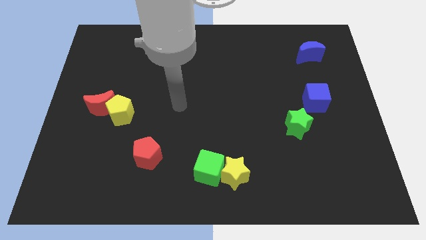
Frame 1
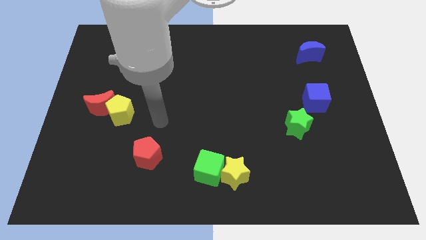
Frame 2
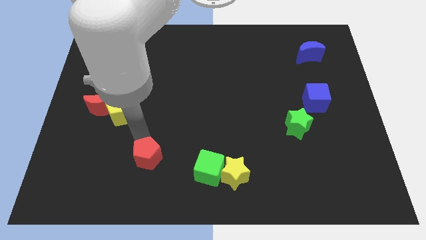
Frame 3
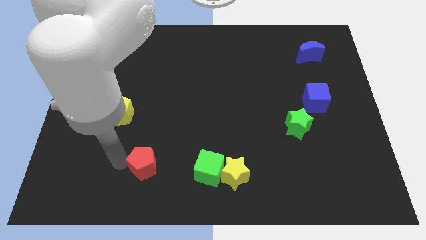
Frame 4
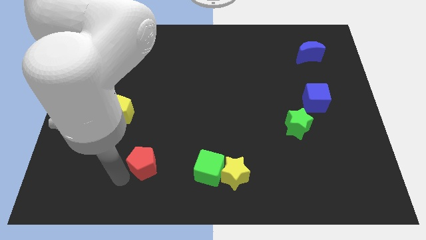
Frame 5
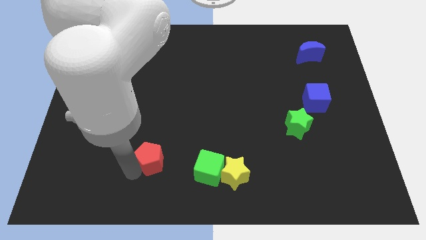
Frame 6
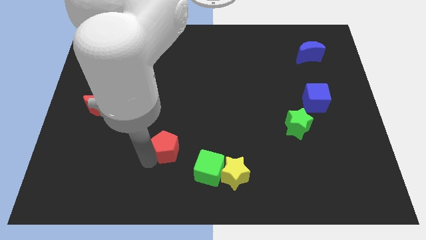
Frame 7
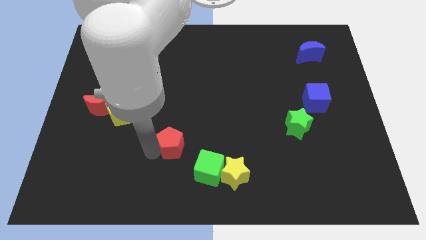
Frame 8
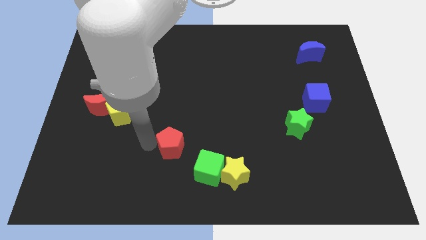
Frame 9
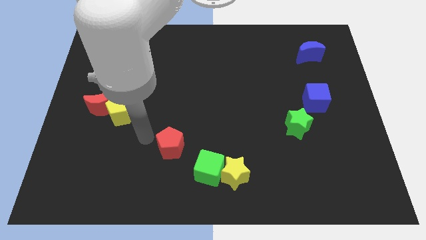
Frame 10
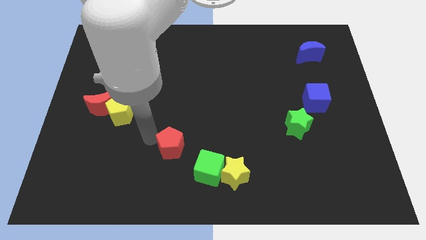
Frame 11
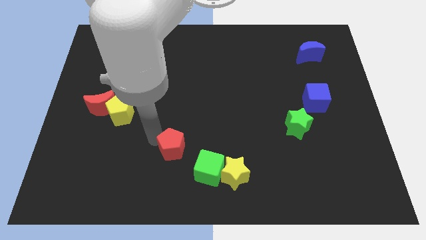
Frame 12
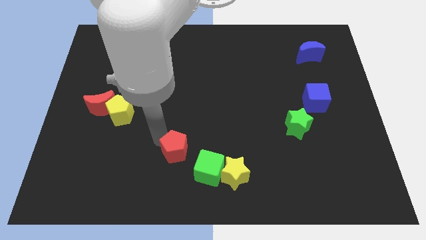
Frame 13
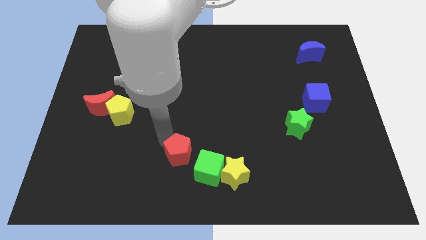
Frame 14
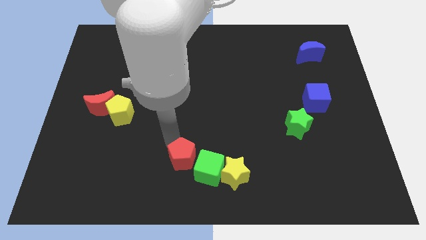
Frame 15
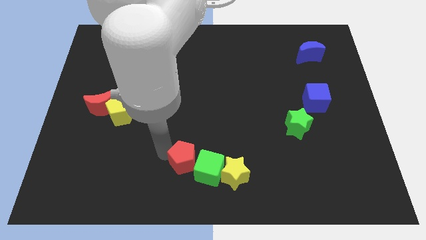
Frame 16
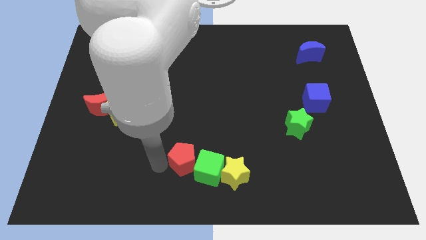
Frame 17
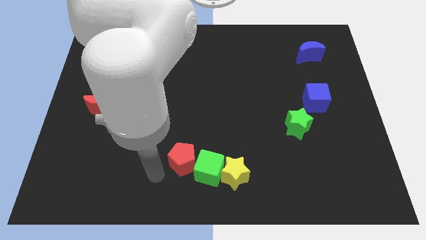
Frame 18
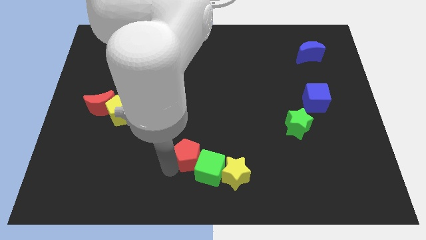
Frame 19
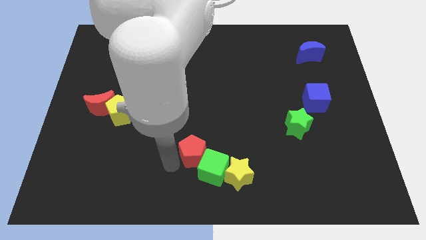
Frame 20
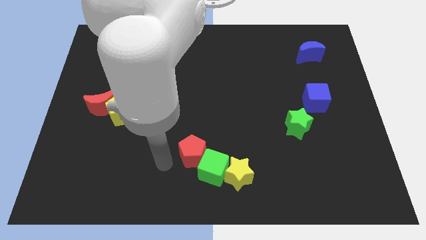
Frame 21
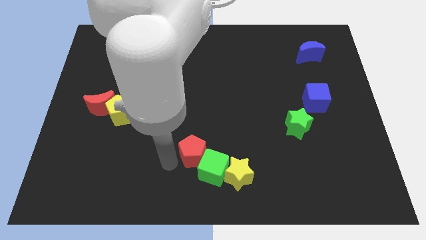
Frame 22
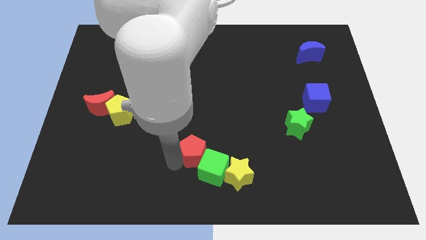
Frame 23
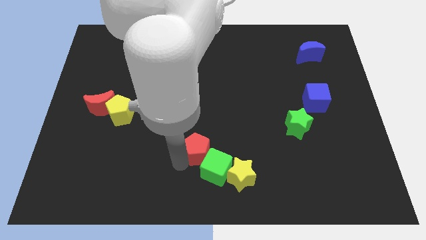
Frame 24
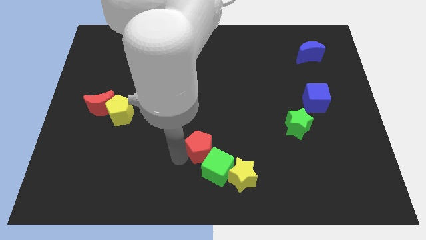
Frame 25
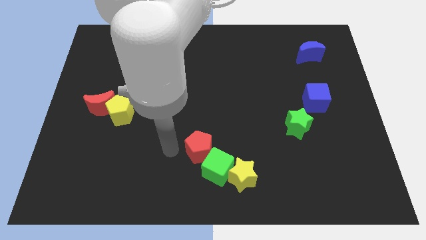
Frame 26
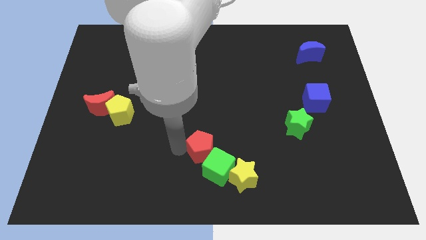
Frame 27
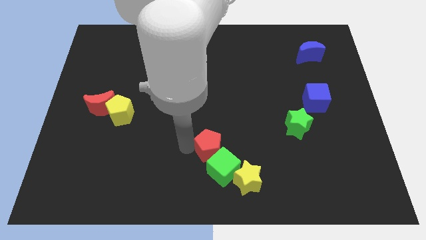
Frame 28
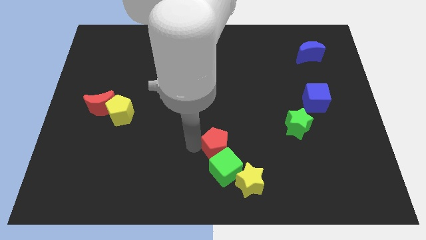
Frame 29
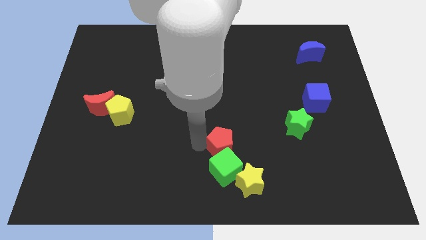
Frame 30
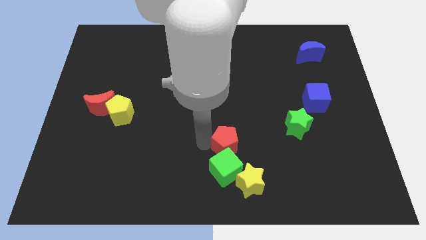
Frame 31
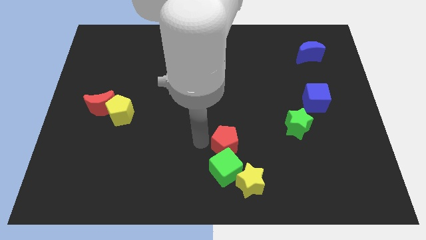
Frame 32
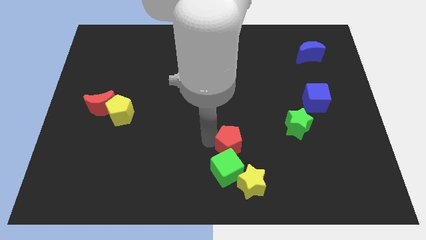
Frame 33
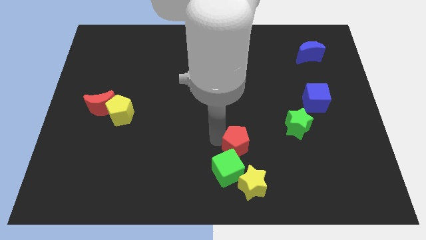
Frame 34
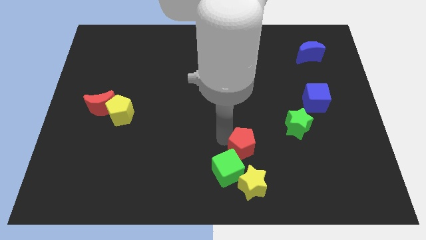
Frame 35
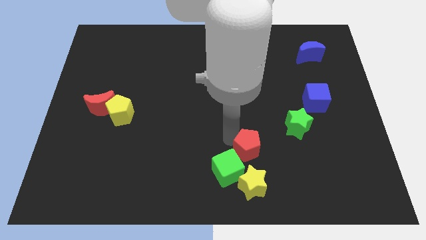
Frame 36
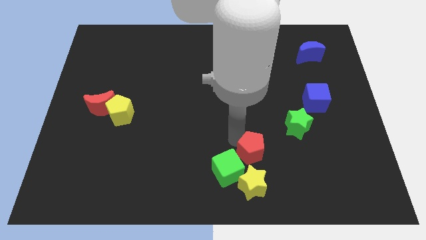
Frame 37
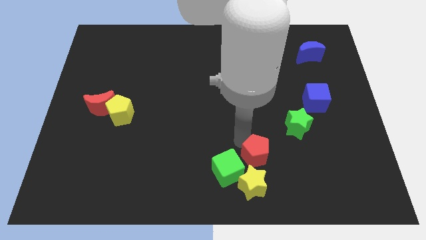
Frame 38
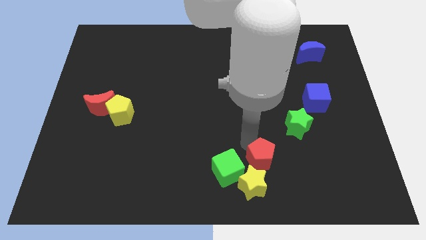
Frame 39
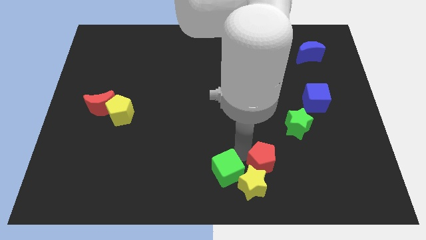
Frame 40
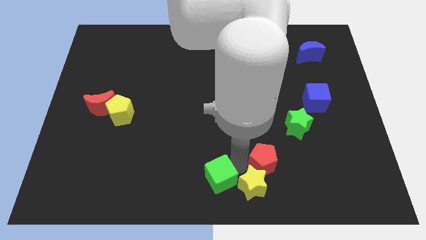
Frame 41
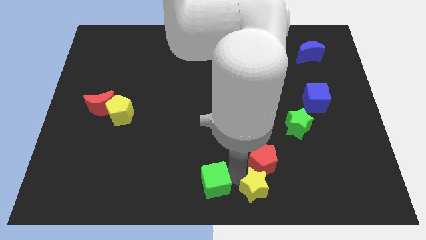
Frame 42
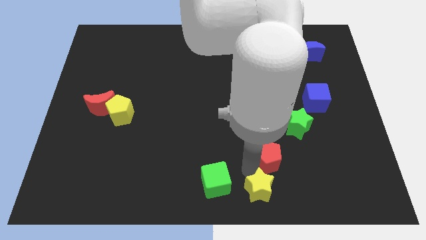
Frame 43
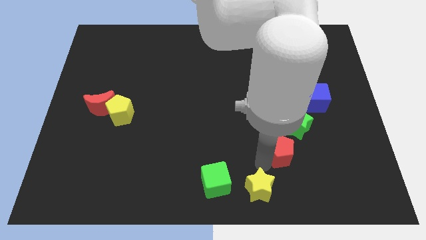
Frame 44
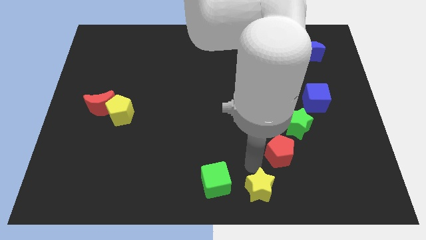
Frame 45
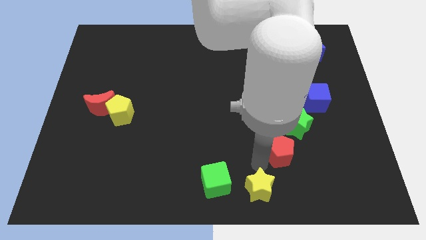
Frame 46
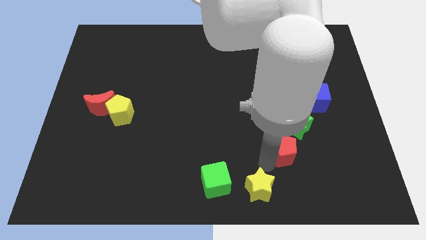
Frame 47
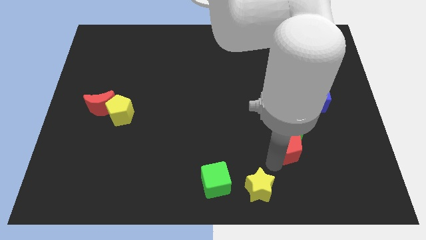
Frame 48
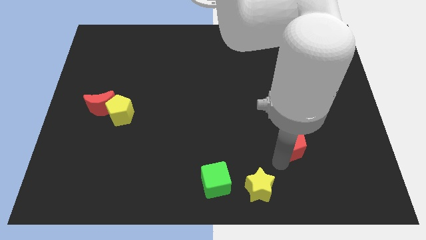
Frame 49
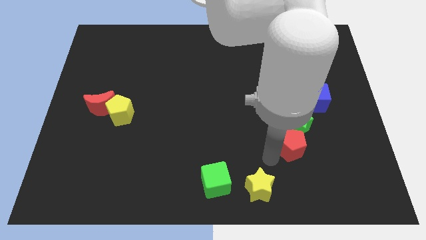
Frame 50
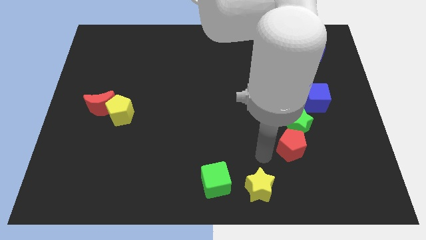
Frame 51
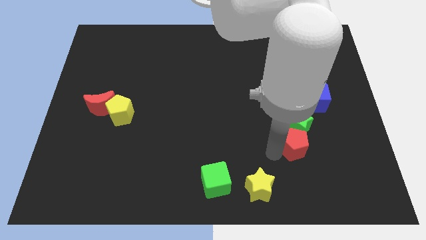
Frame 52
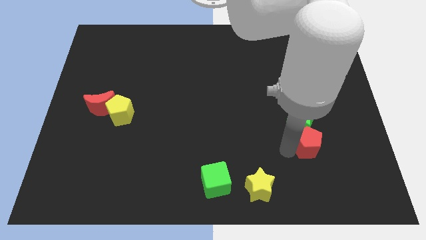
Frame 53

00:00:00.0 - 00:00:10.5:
slide the red pentagon to the bottom of the blue cube

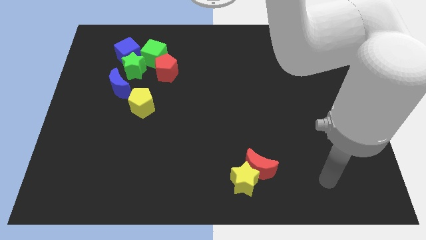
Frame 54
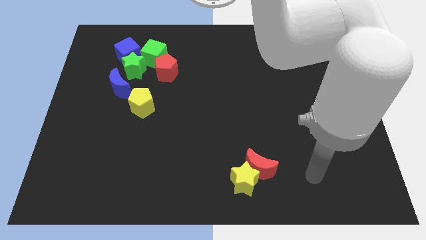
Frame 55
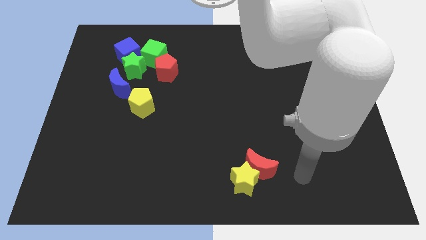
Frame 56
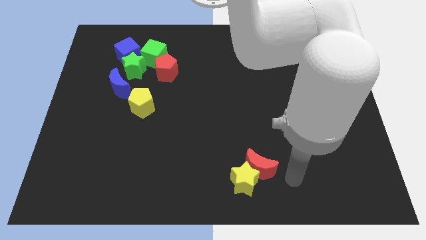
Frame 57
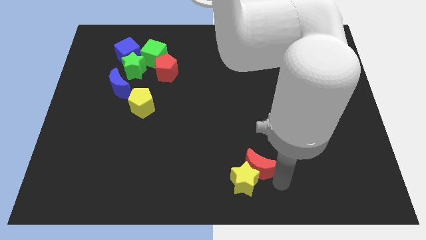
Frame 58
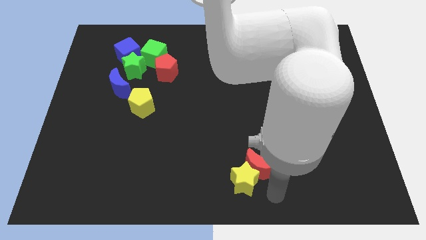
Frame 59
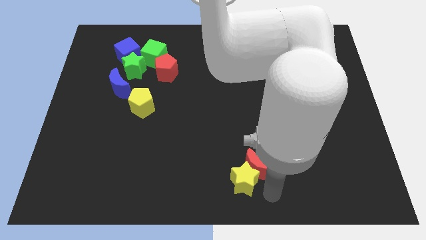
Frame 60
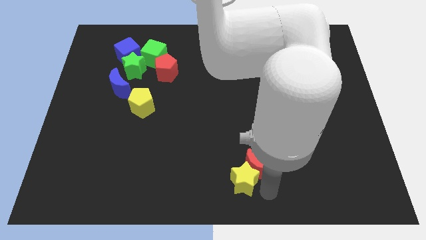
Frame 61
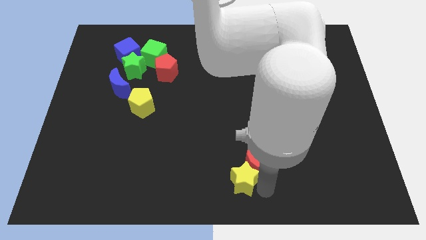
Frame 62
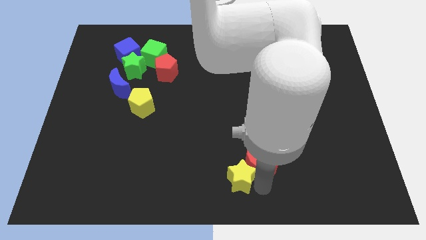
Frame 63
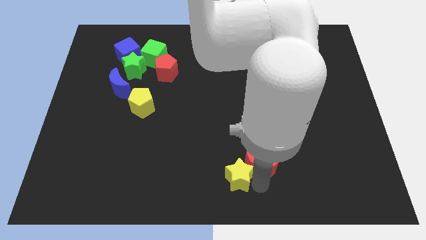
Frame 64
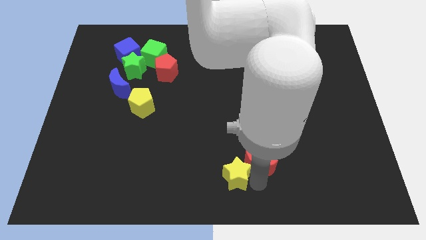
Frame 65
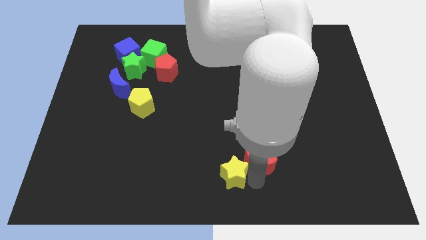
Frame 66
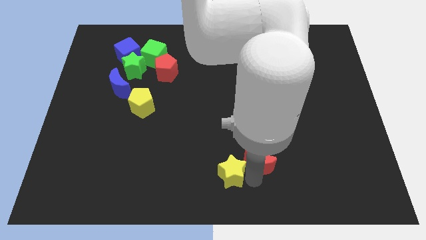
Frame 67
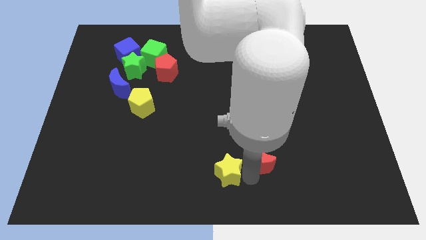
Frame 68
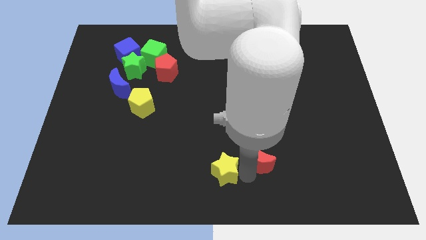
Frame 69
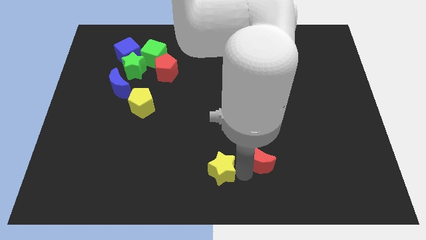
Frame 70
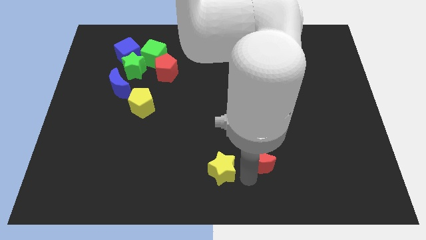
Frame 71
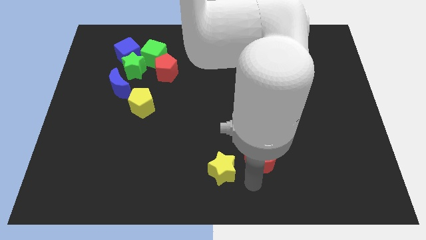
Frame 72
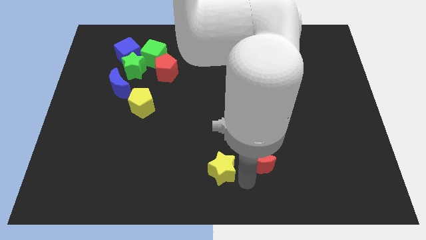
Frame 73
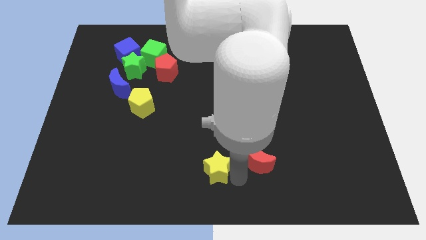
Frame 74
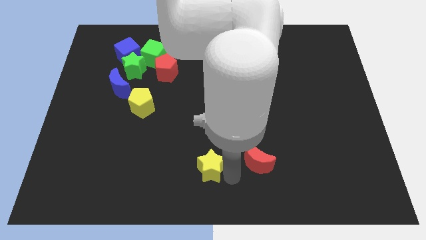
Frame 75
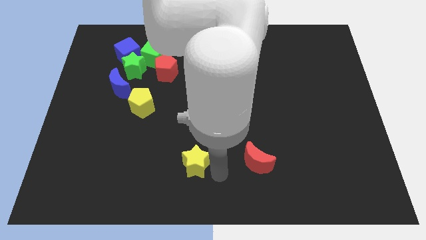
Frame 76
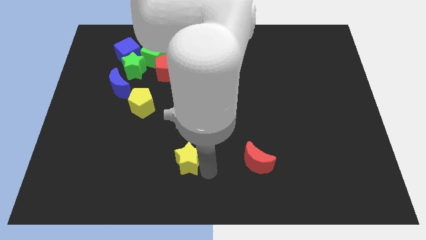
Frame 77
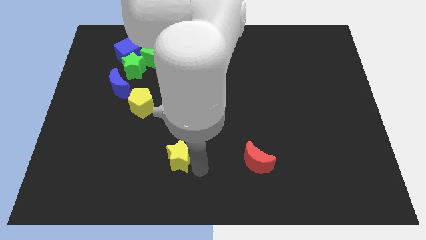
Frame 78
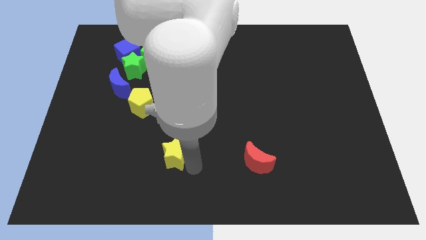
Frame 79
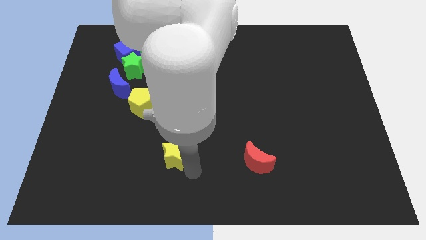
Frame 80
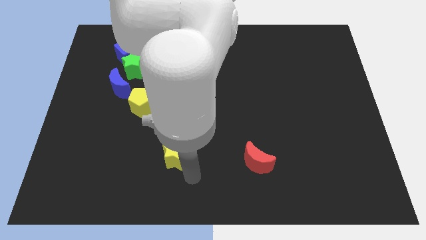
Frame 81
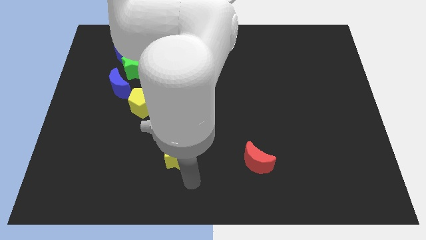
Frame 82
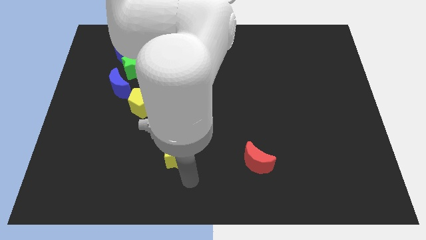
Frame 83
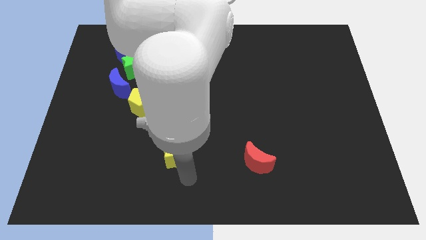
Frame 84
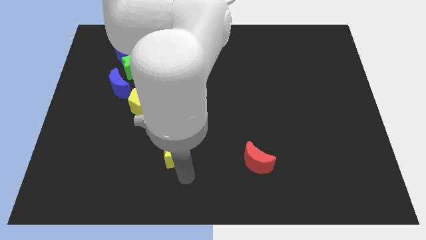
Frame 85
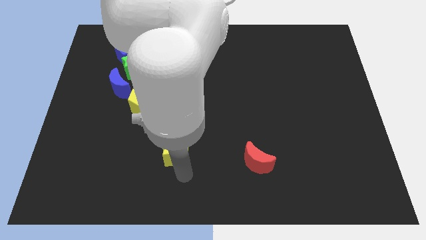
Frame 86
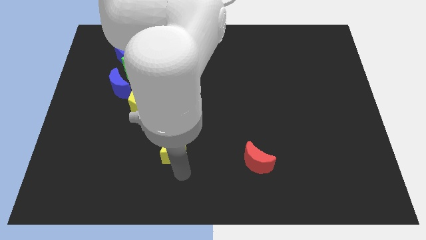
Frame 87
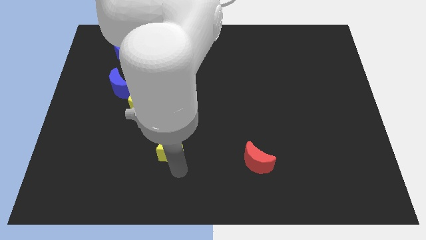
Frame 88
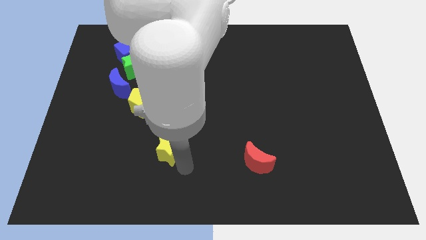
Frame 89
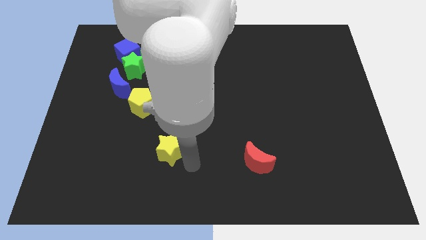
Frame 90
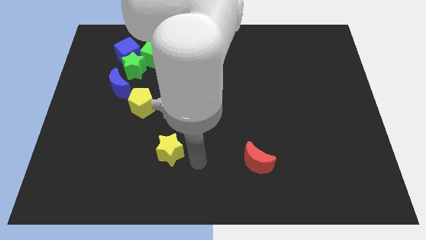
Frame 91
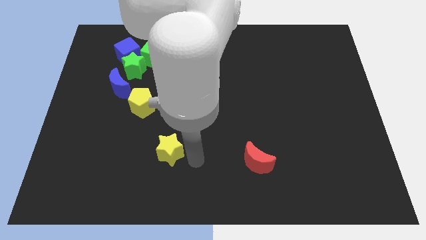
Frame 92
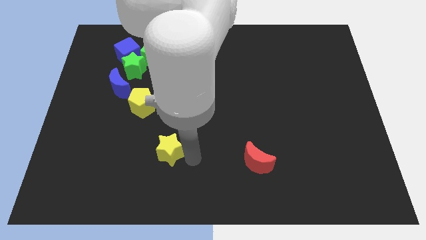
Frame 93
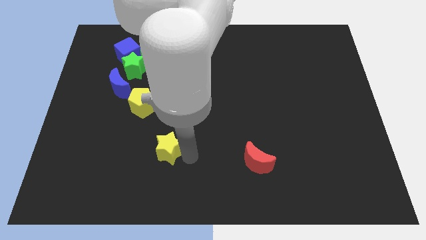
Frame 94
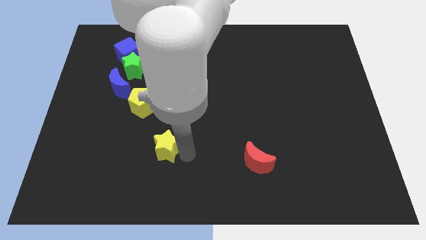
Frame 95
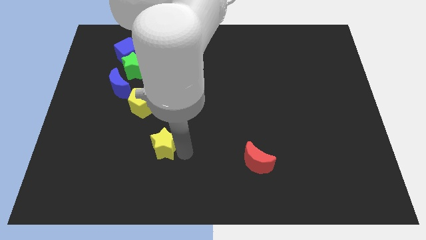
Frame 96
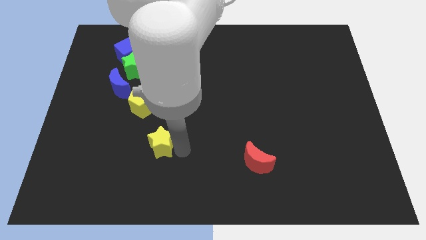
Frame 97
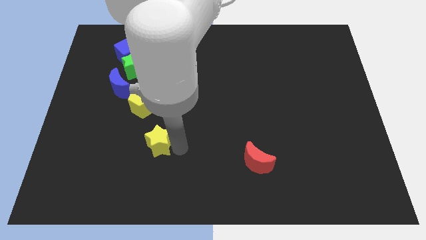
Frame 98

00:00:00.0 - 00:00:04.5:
slide the yellow star below the yellow pentagon
